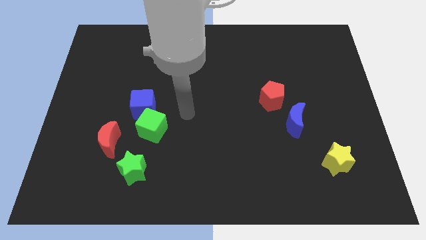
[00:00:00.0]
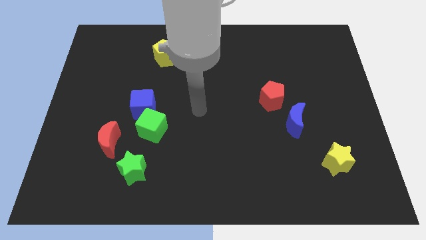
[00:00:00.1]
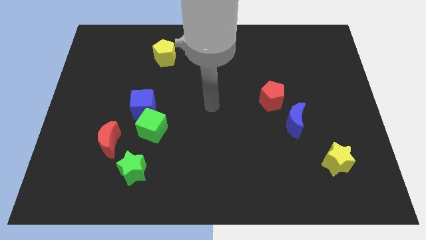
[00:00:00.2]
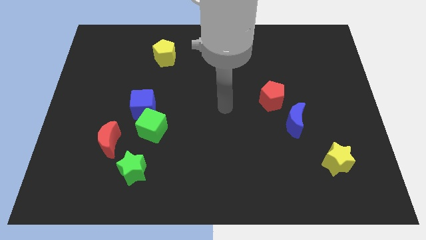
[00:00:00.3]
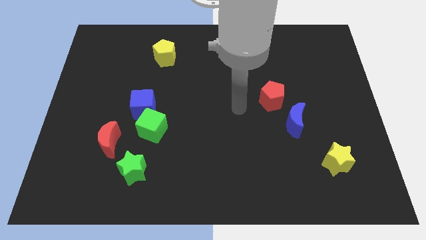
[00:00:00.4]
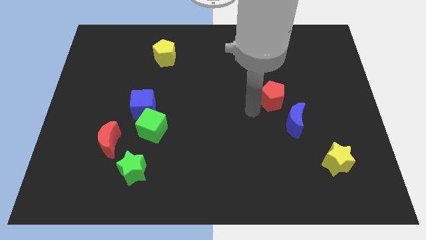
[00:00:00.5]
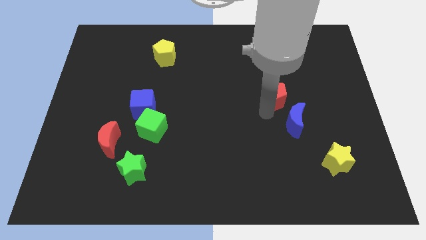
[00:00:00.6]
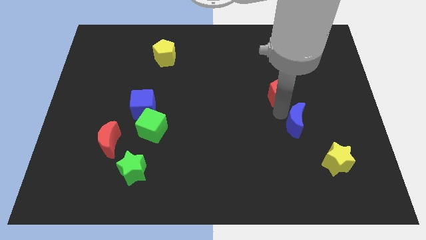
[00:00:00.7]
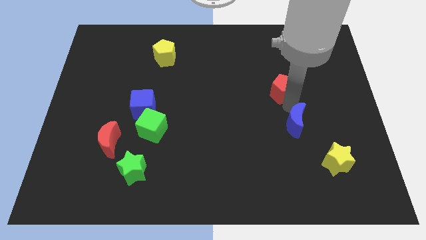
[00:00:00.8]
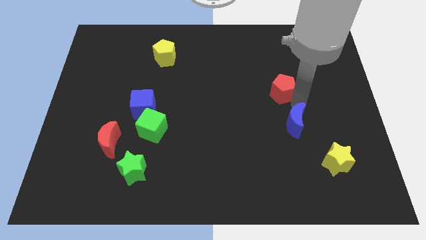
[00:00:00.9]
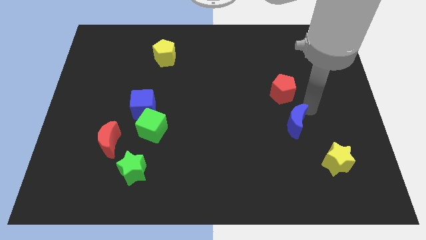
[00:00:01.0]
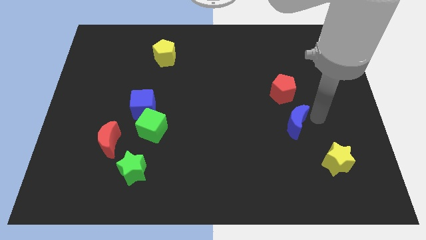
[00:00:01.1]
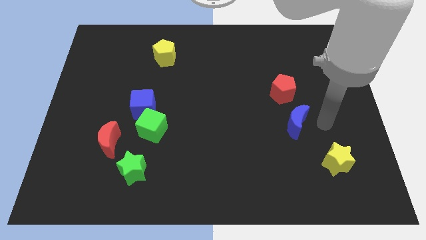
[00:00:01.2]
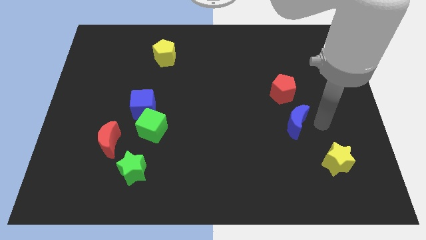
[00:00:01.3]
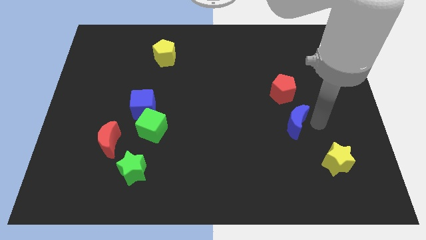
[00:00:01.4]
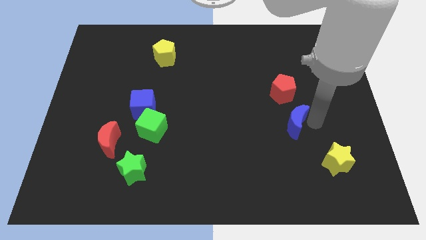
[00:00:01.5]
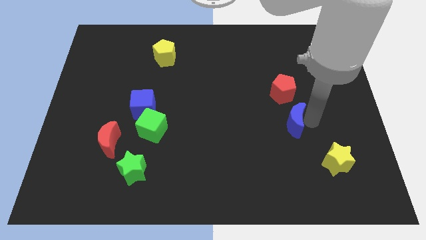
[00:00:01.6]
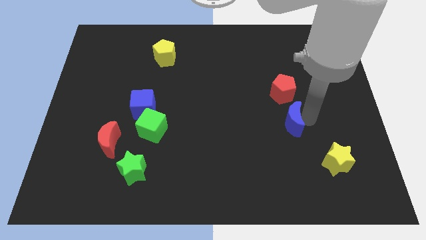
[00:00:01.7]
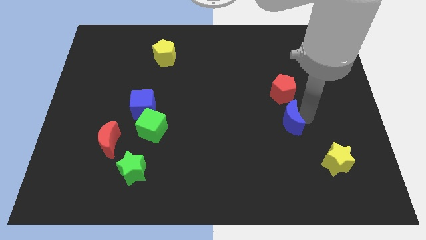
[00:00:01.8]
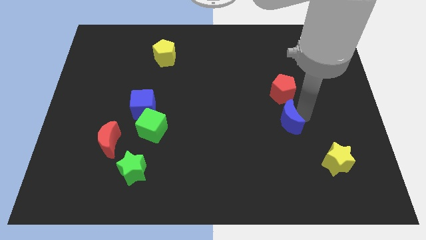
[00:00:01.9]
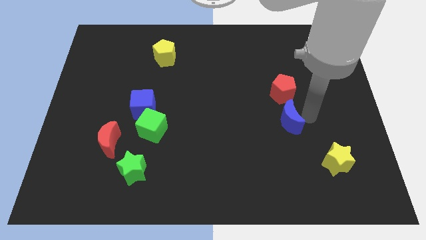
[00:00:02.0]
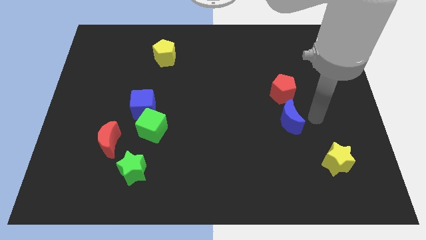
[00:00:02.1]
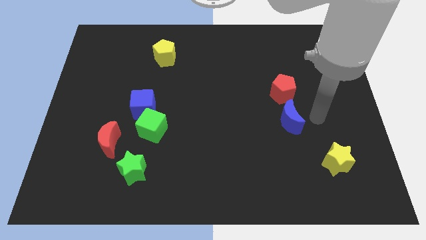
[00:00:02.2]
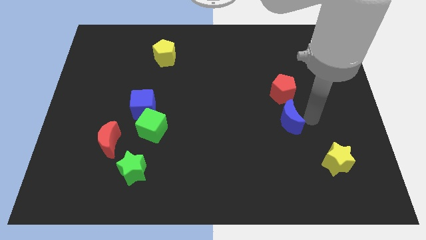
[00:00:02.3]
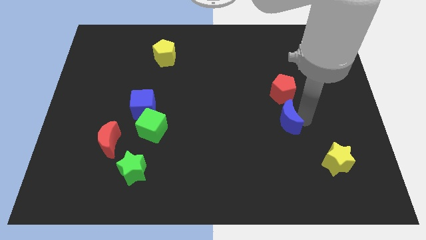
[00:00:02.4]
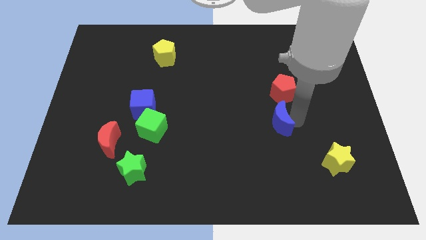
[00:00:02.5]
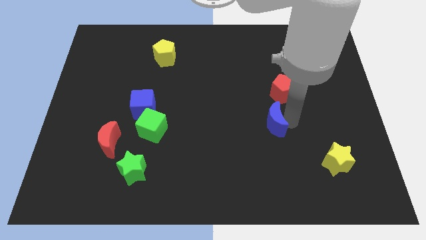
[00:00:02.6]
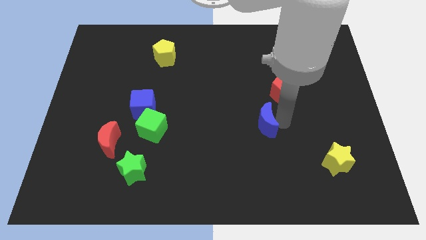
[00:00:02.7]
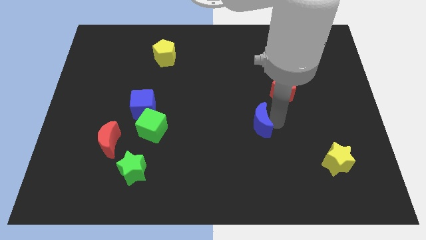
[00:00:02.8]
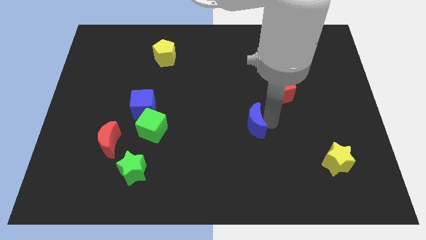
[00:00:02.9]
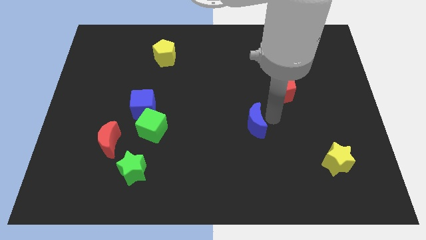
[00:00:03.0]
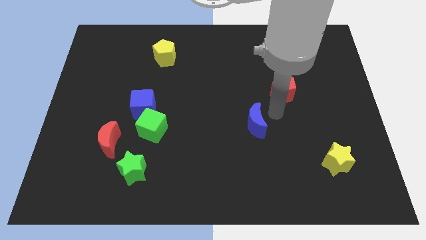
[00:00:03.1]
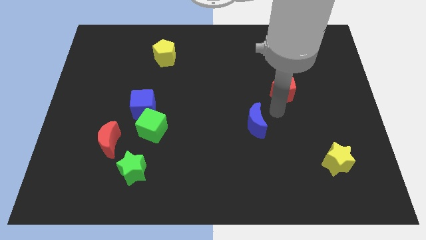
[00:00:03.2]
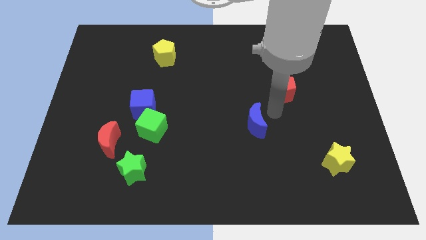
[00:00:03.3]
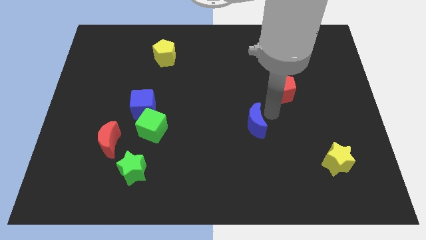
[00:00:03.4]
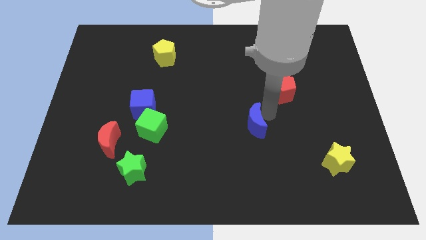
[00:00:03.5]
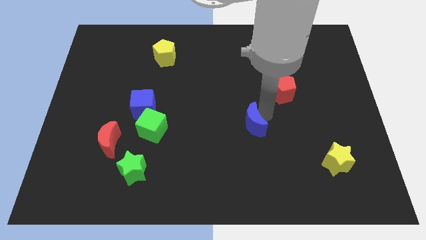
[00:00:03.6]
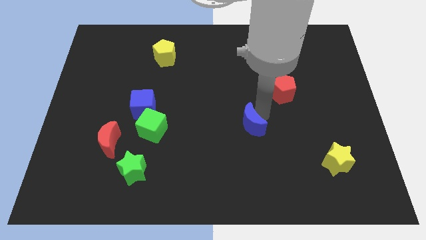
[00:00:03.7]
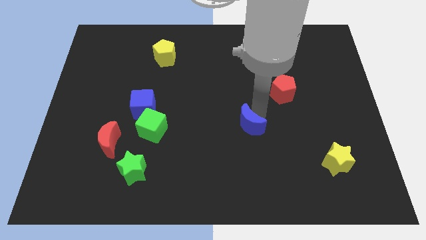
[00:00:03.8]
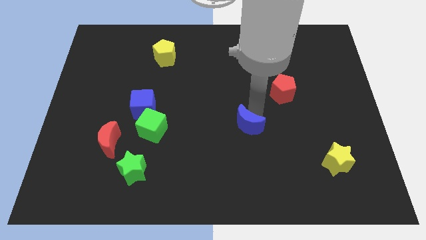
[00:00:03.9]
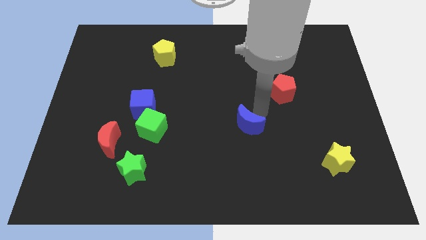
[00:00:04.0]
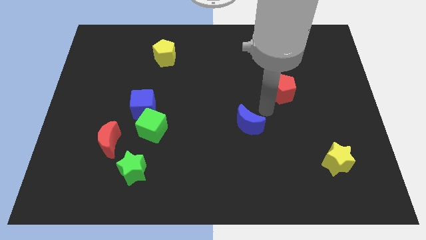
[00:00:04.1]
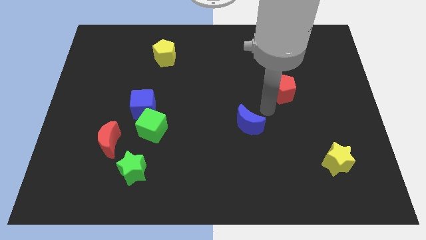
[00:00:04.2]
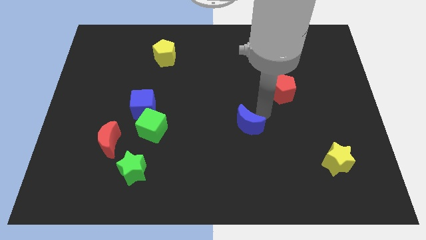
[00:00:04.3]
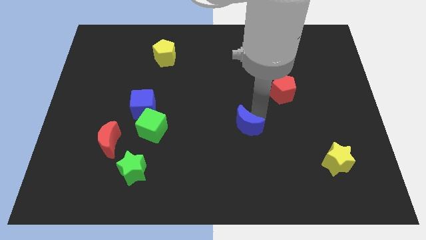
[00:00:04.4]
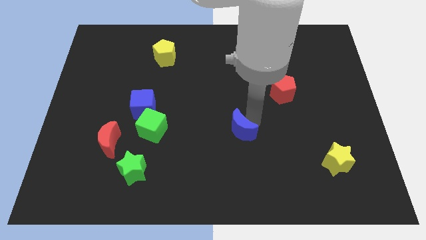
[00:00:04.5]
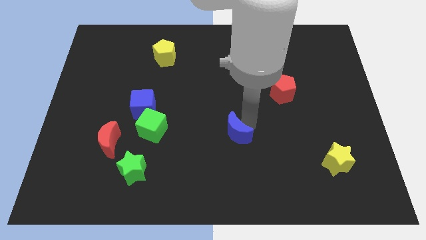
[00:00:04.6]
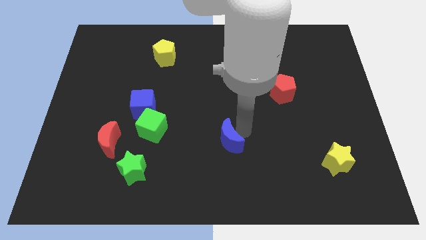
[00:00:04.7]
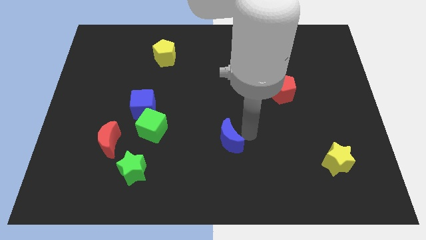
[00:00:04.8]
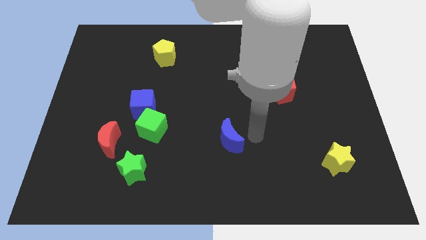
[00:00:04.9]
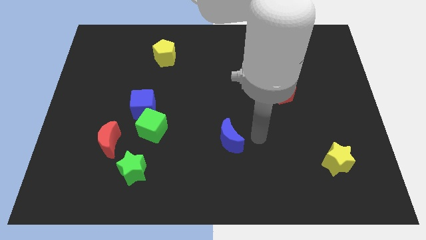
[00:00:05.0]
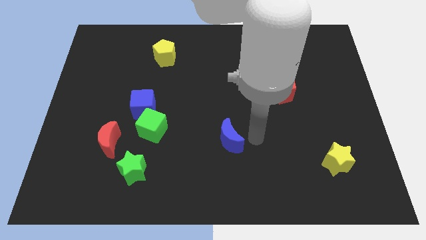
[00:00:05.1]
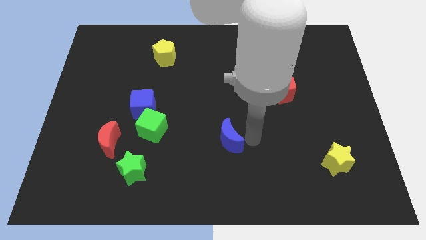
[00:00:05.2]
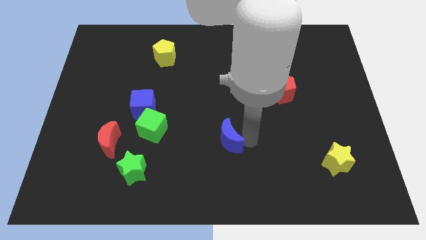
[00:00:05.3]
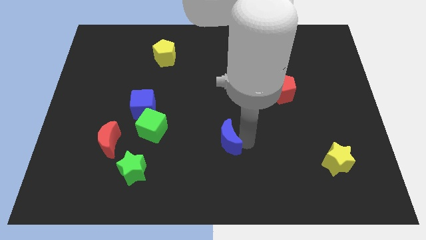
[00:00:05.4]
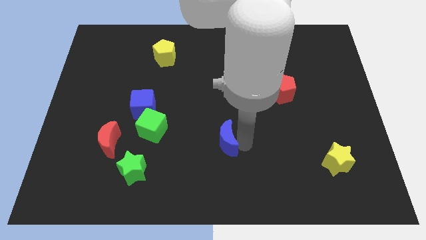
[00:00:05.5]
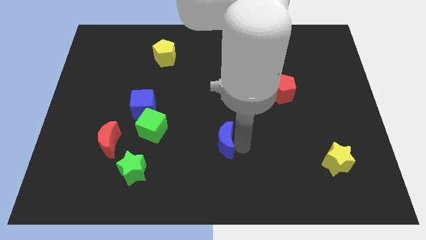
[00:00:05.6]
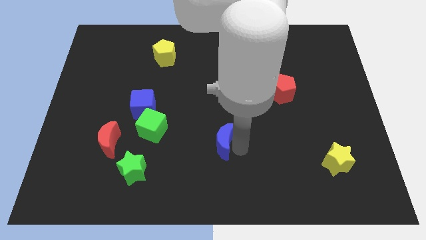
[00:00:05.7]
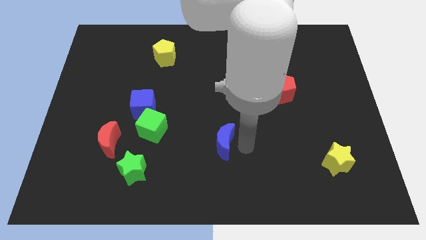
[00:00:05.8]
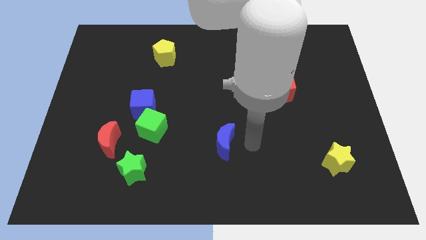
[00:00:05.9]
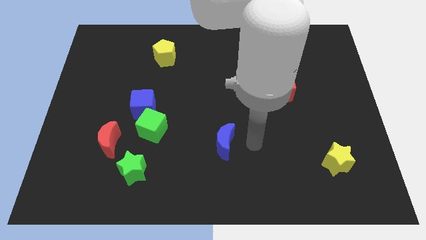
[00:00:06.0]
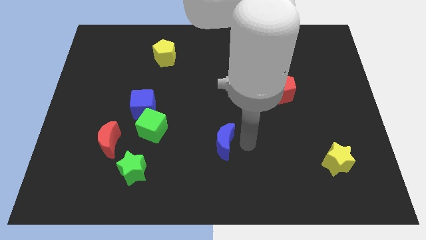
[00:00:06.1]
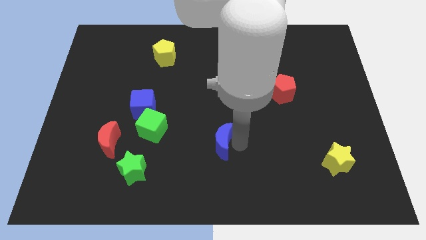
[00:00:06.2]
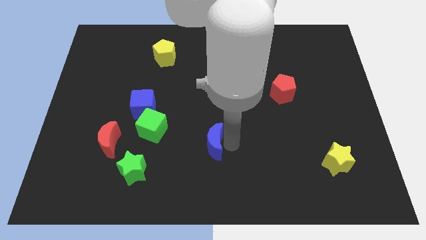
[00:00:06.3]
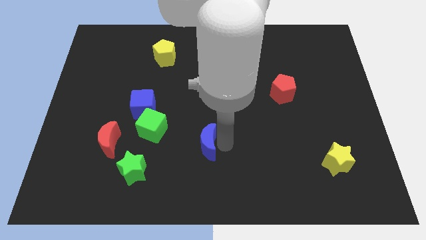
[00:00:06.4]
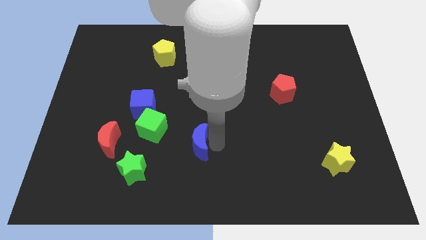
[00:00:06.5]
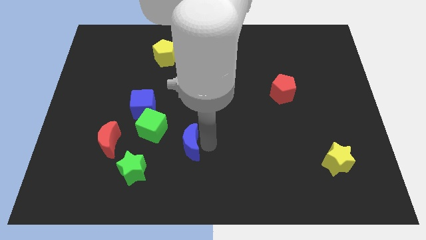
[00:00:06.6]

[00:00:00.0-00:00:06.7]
push the blue moon to the bottom right side of the green cube

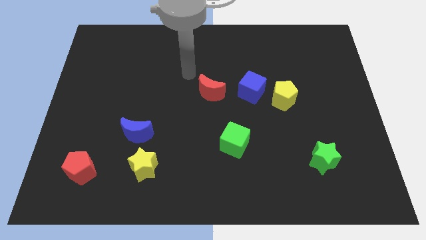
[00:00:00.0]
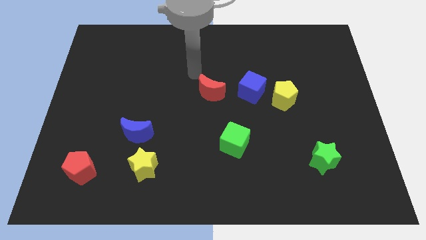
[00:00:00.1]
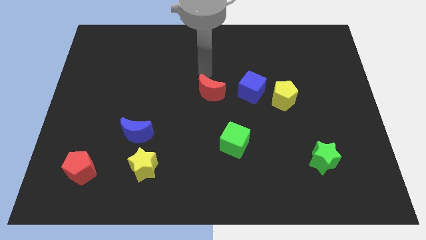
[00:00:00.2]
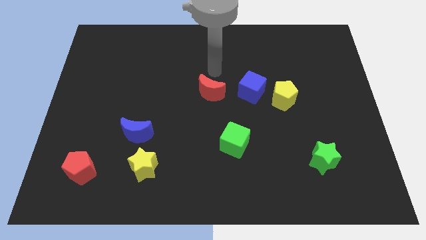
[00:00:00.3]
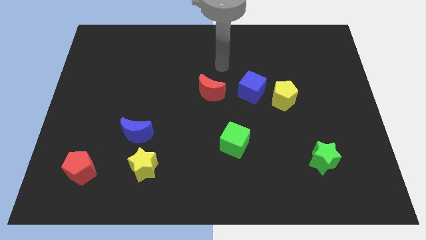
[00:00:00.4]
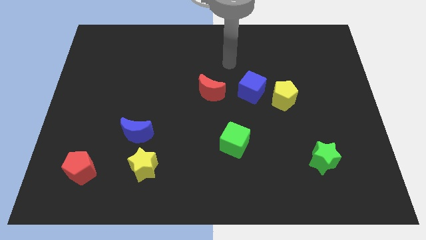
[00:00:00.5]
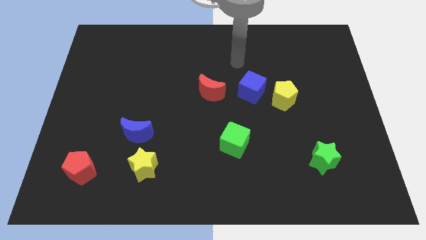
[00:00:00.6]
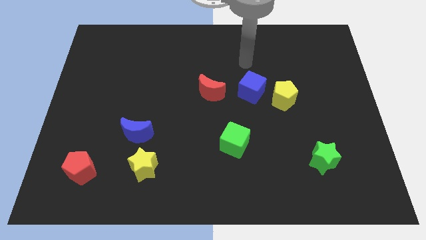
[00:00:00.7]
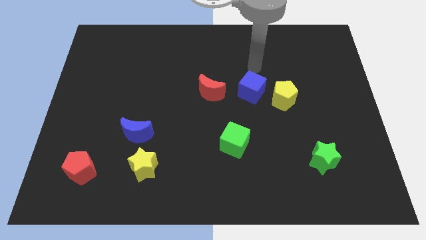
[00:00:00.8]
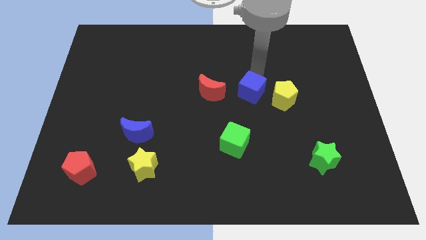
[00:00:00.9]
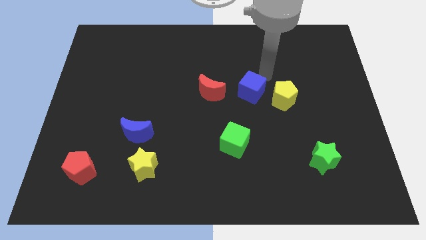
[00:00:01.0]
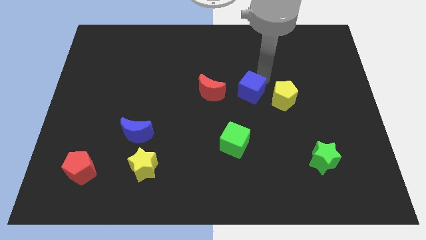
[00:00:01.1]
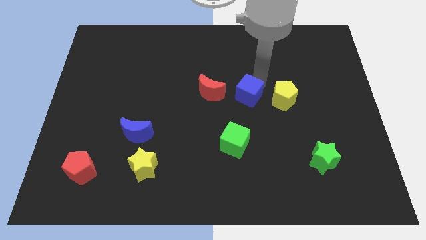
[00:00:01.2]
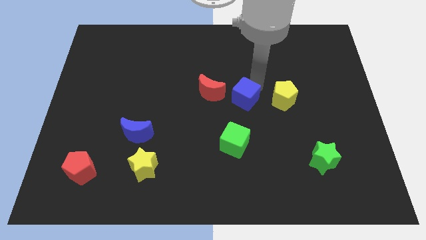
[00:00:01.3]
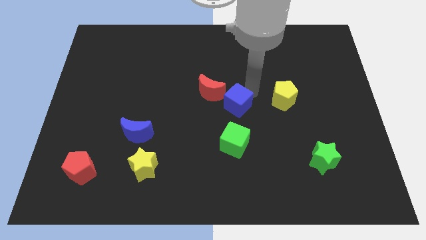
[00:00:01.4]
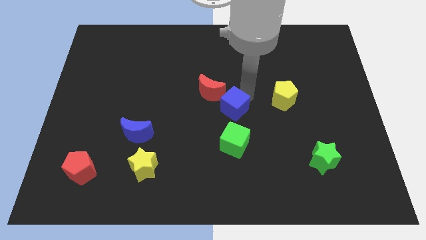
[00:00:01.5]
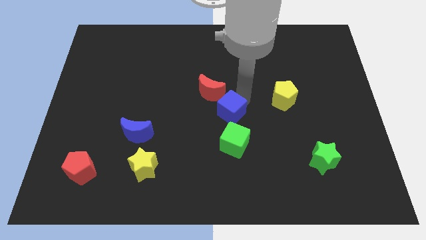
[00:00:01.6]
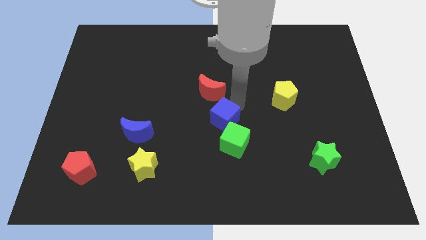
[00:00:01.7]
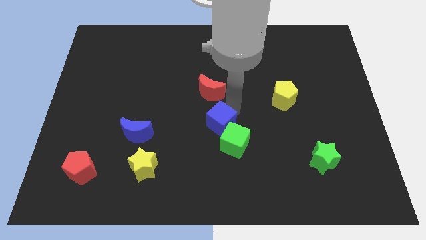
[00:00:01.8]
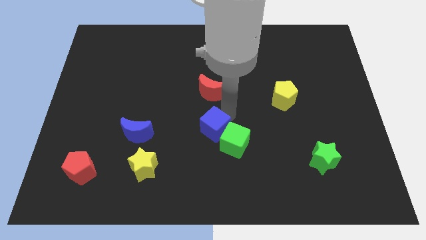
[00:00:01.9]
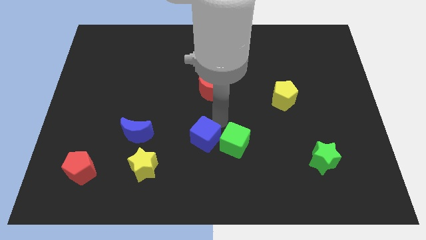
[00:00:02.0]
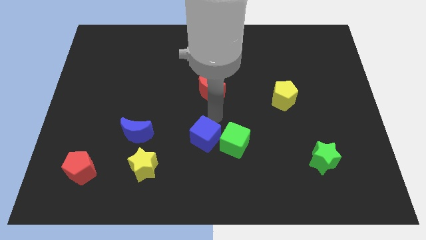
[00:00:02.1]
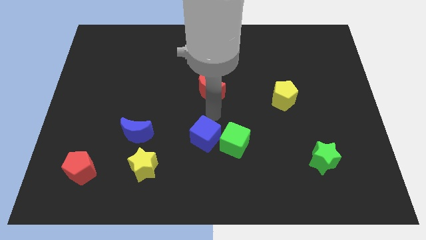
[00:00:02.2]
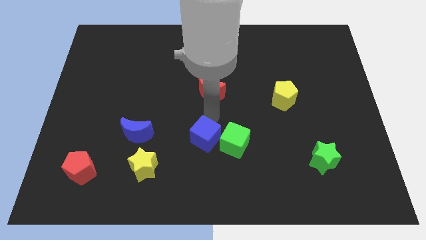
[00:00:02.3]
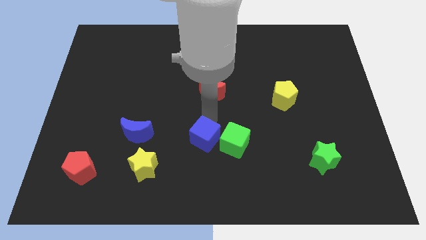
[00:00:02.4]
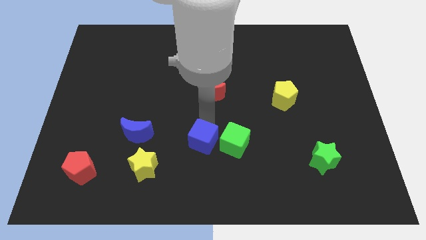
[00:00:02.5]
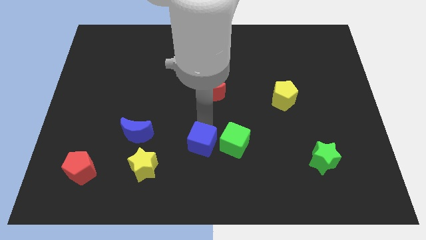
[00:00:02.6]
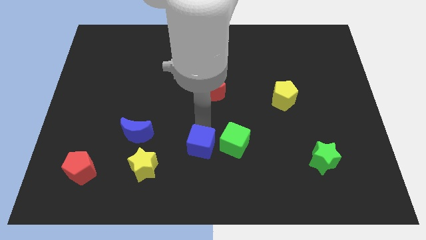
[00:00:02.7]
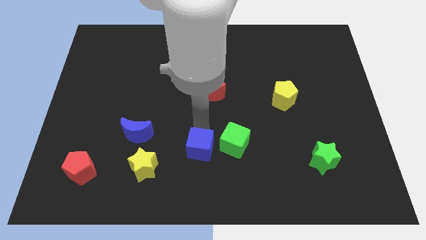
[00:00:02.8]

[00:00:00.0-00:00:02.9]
put the blue cube to the right of the yellow star
